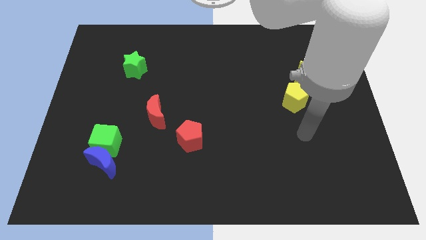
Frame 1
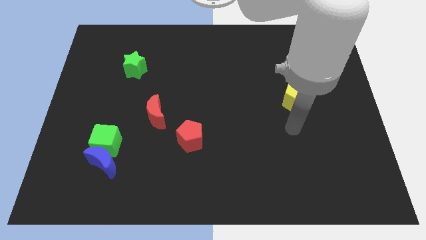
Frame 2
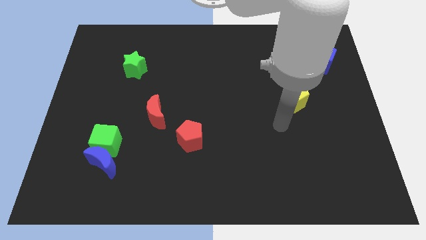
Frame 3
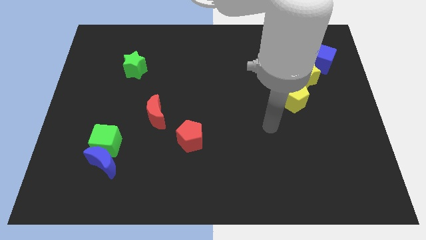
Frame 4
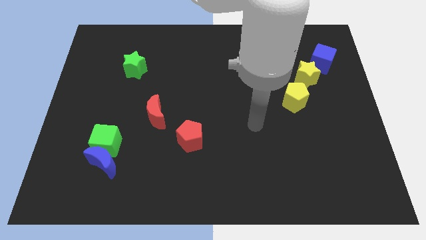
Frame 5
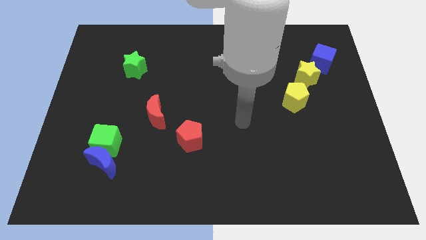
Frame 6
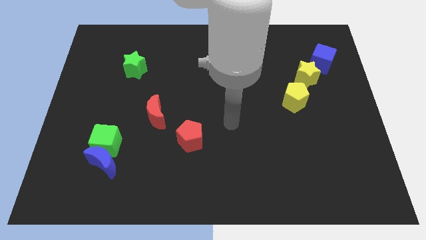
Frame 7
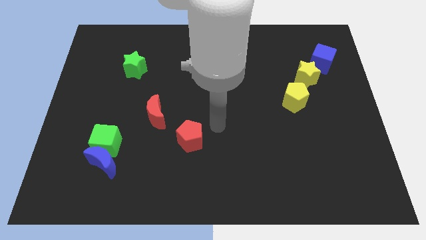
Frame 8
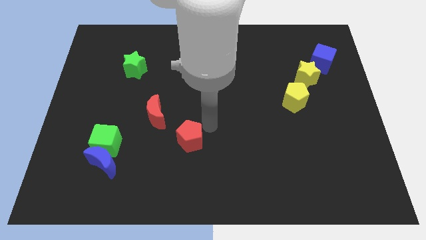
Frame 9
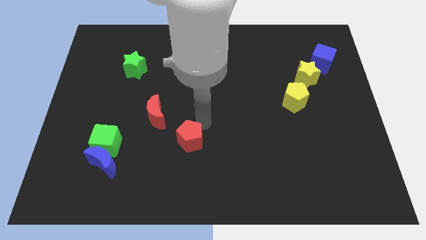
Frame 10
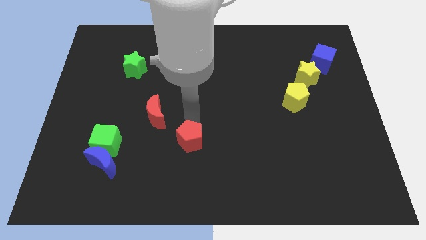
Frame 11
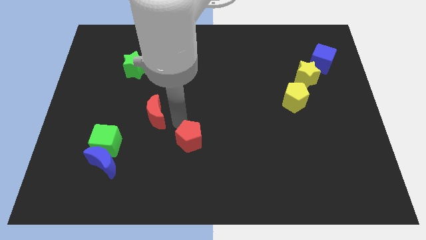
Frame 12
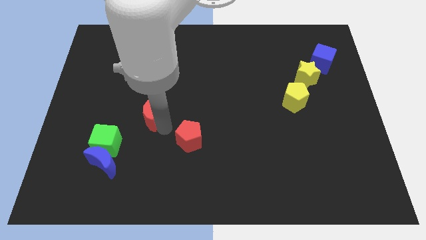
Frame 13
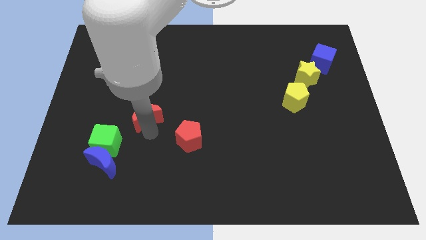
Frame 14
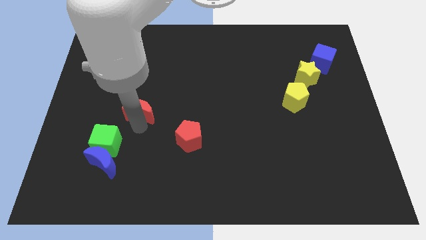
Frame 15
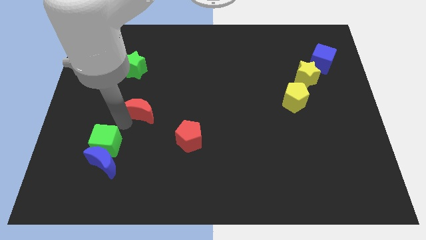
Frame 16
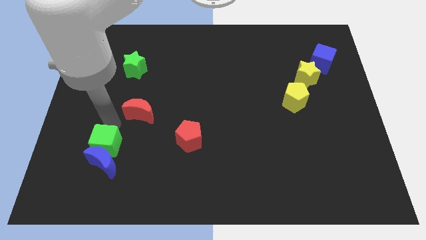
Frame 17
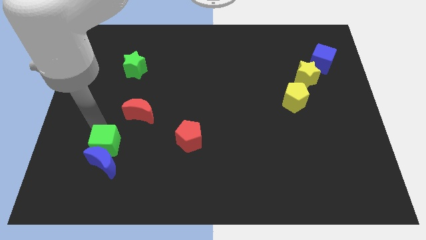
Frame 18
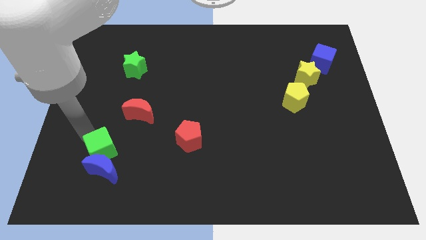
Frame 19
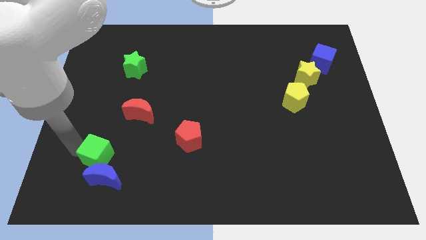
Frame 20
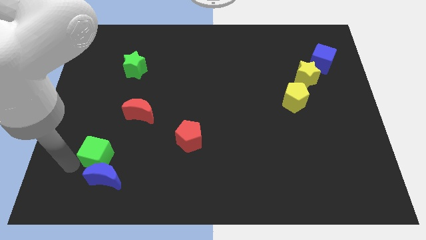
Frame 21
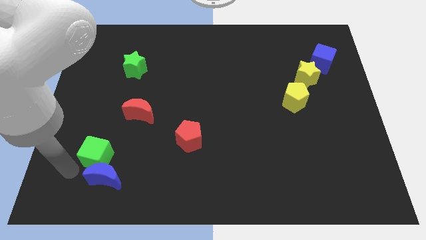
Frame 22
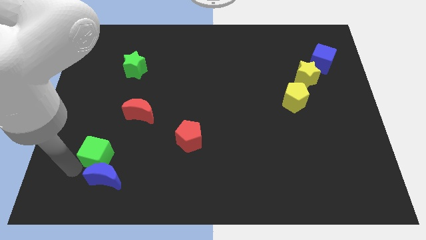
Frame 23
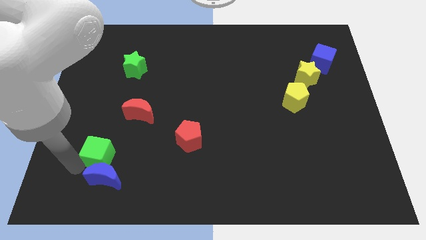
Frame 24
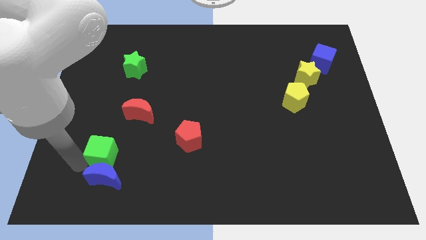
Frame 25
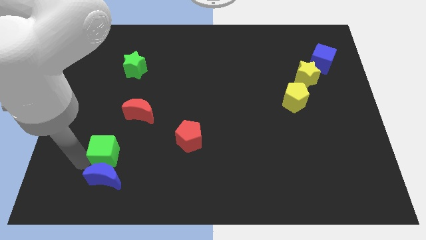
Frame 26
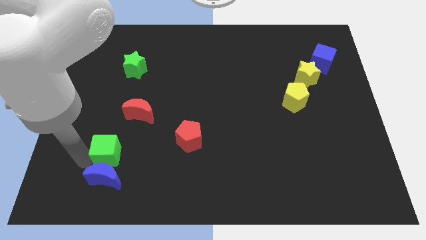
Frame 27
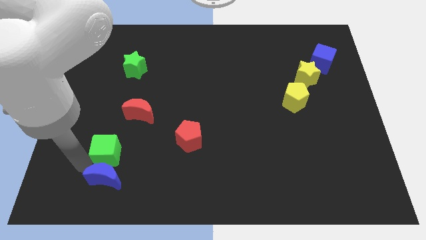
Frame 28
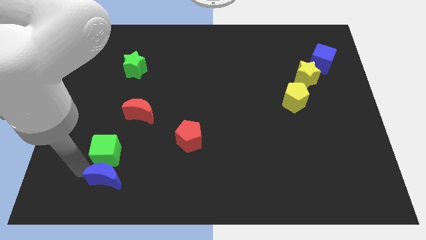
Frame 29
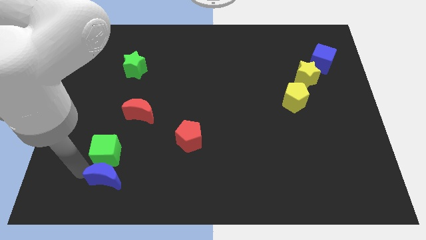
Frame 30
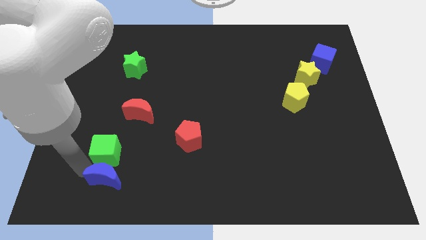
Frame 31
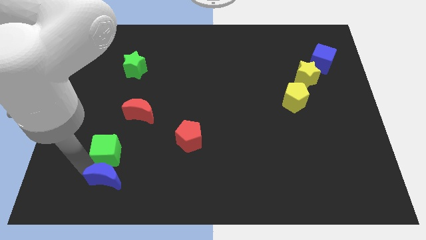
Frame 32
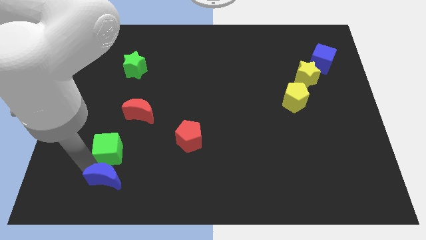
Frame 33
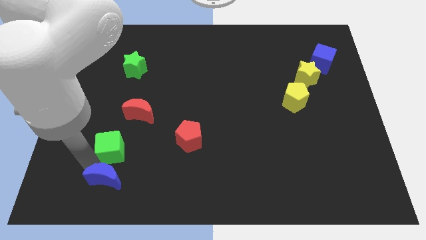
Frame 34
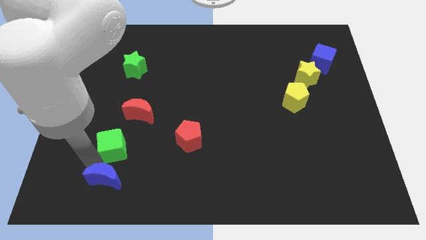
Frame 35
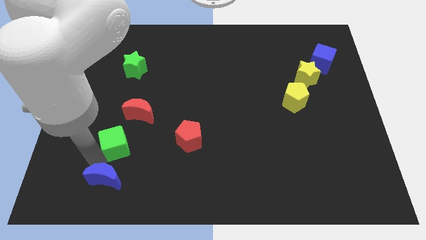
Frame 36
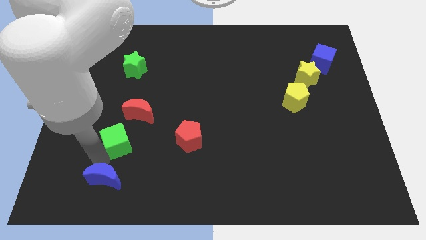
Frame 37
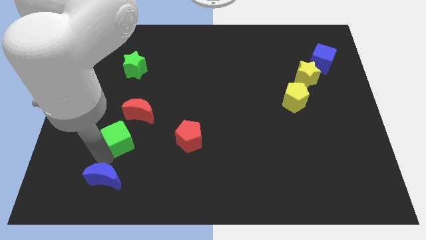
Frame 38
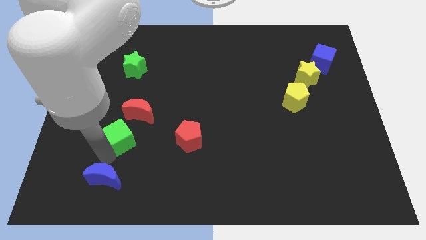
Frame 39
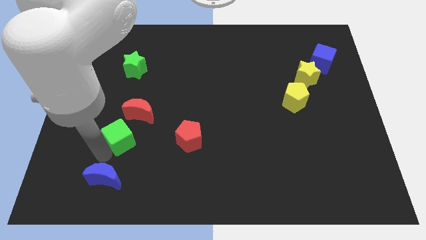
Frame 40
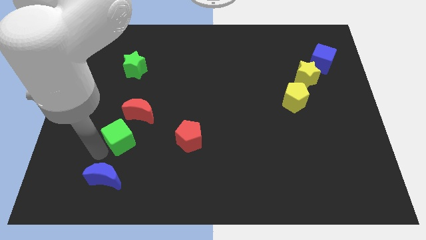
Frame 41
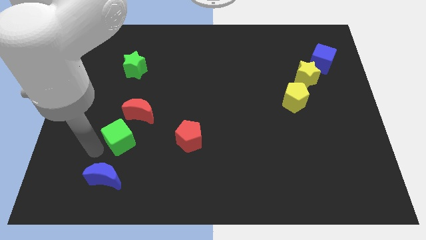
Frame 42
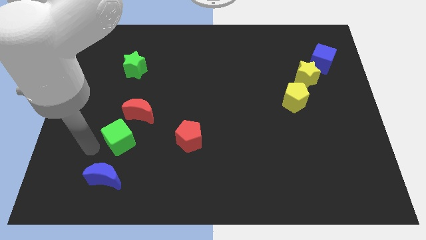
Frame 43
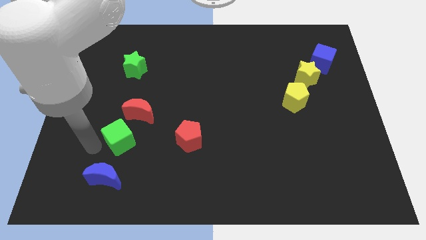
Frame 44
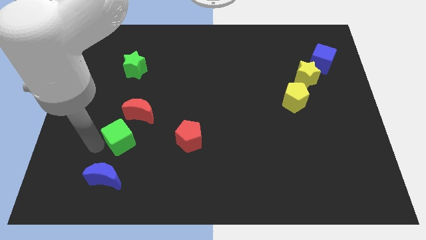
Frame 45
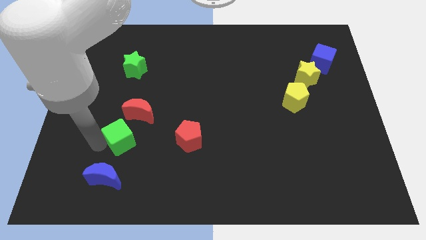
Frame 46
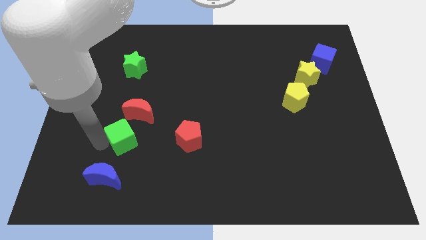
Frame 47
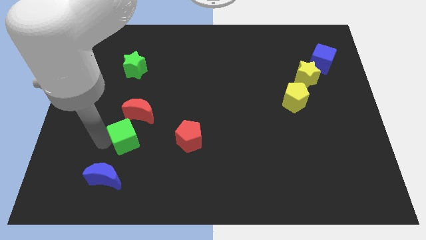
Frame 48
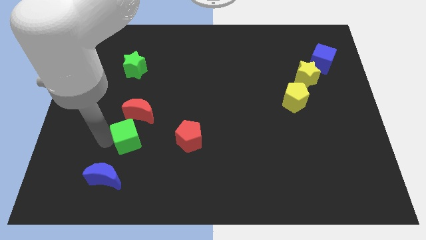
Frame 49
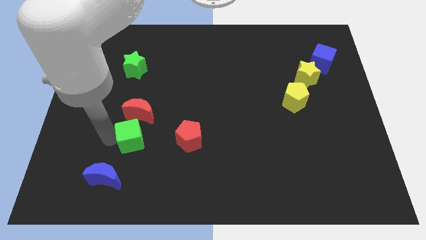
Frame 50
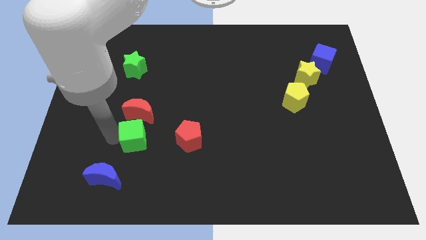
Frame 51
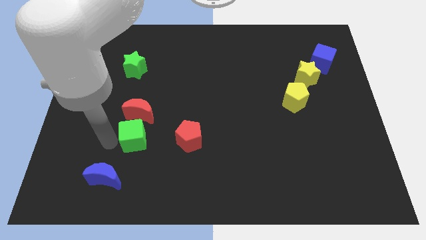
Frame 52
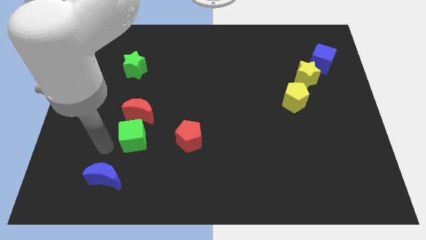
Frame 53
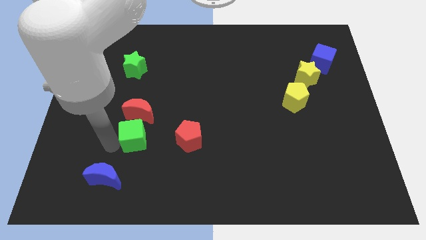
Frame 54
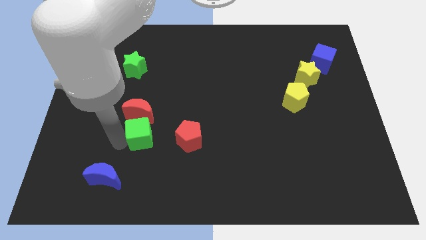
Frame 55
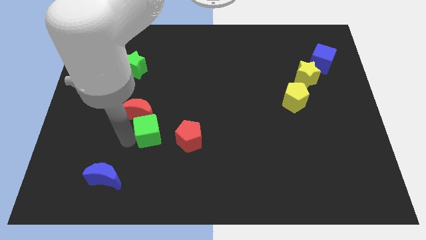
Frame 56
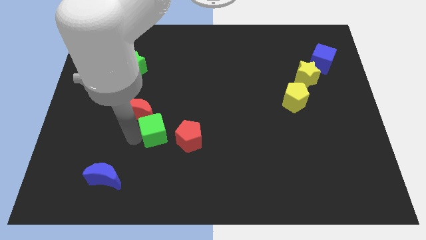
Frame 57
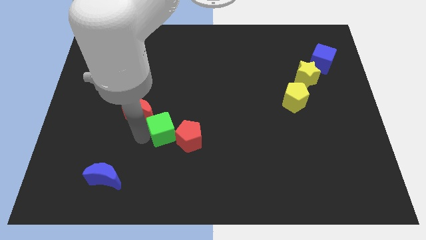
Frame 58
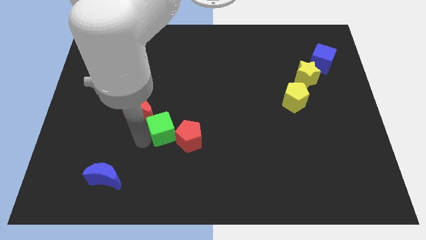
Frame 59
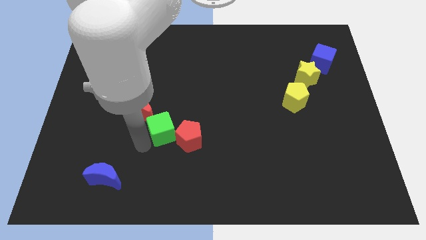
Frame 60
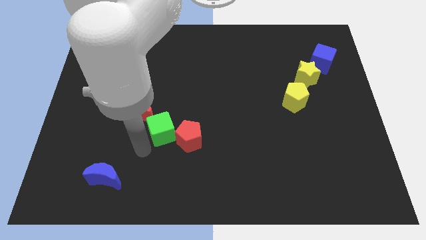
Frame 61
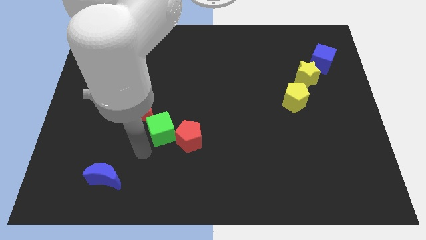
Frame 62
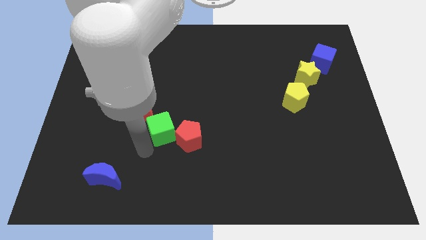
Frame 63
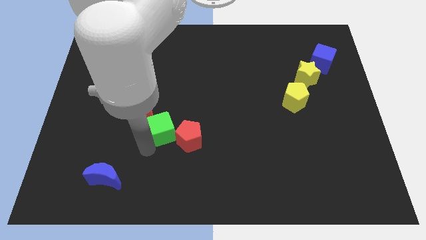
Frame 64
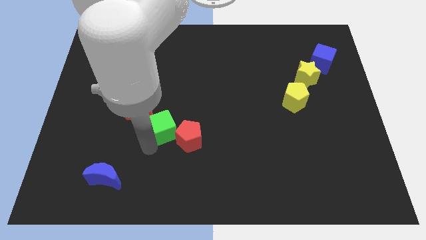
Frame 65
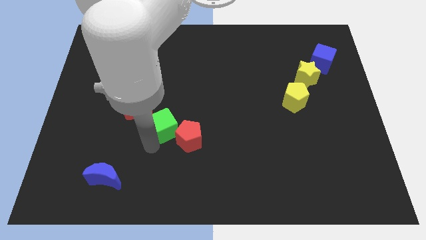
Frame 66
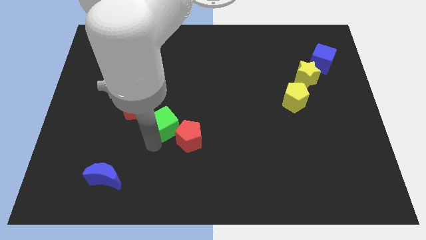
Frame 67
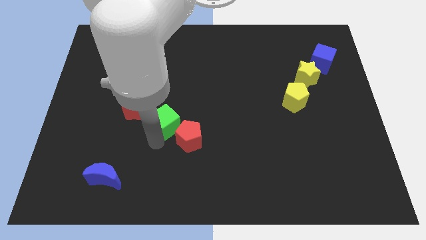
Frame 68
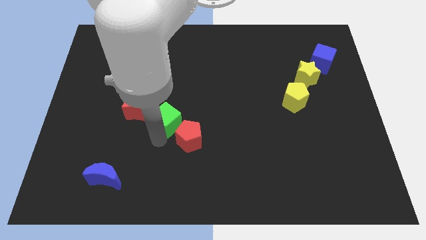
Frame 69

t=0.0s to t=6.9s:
move the green cube to the center of the board
